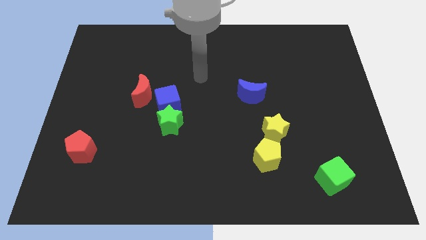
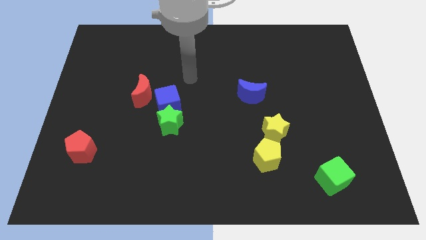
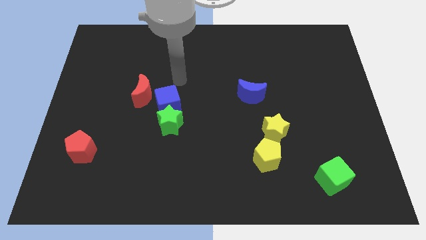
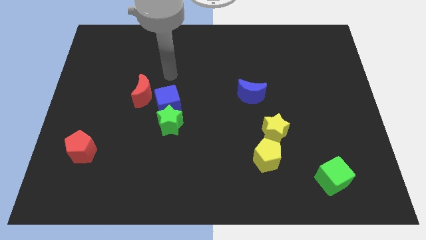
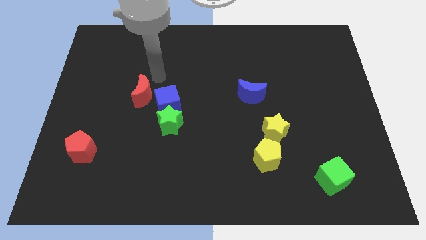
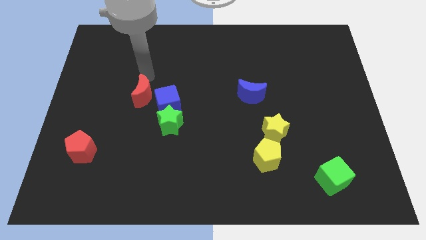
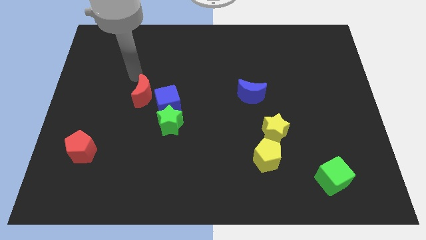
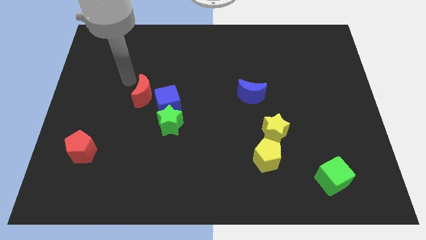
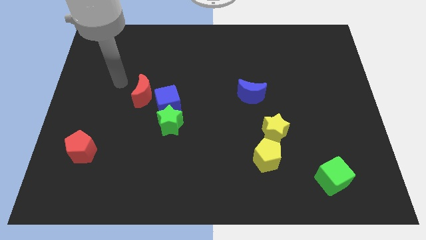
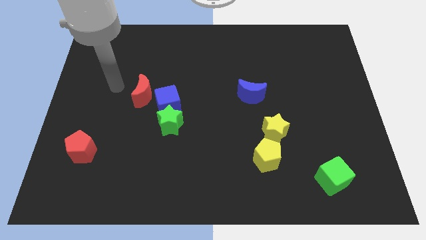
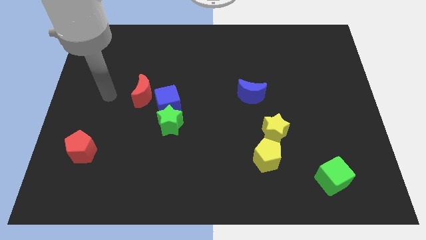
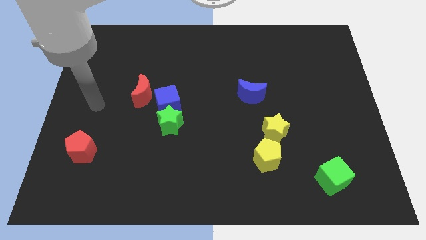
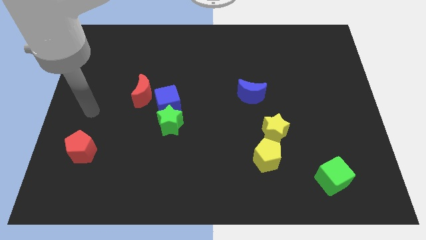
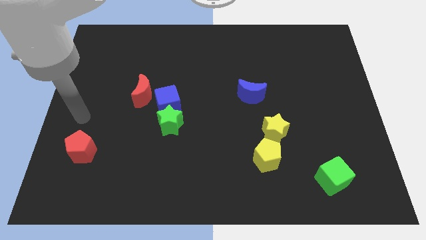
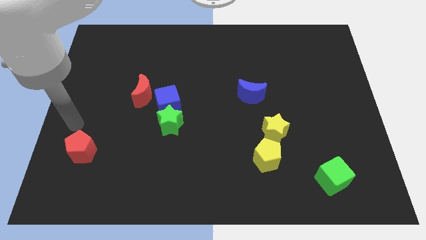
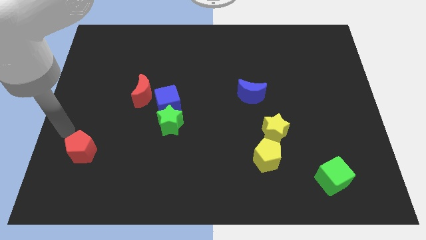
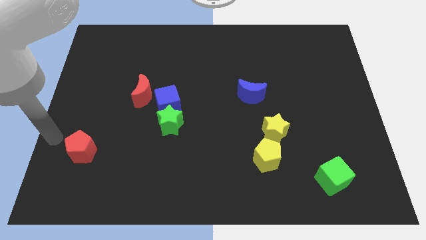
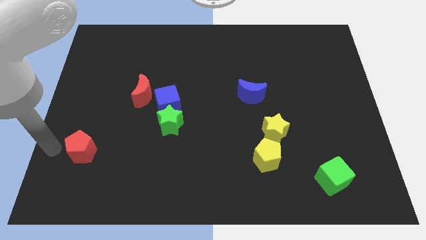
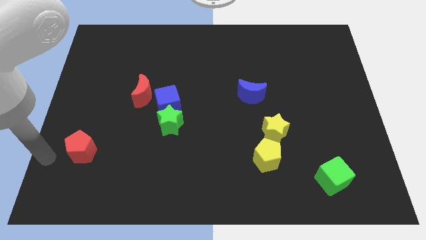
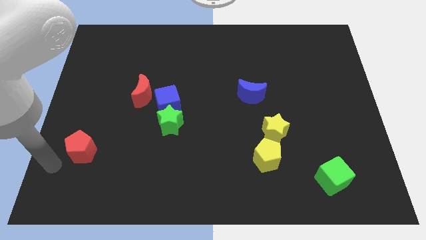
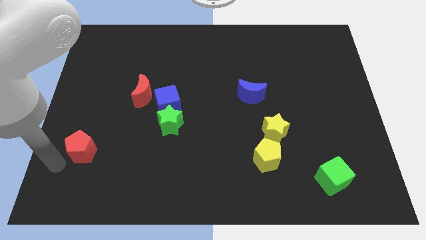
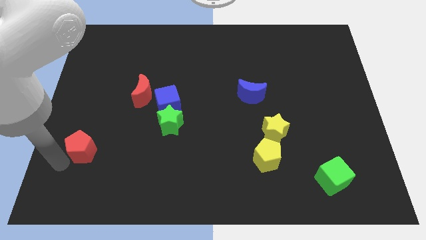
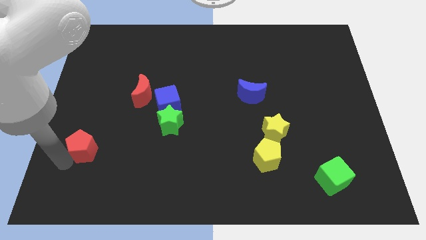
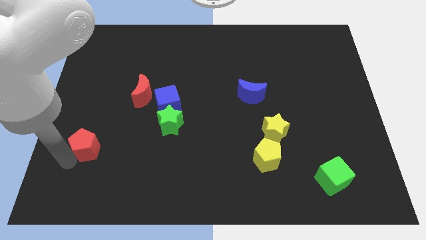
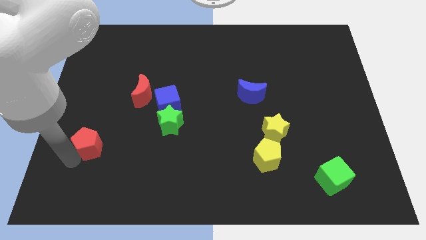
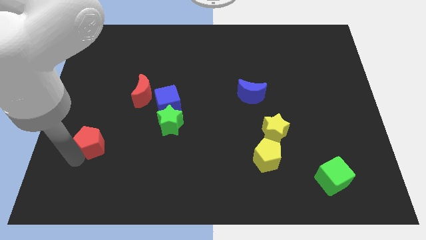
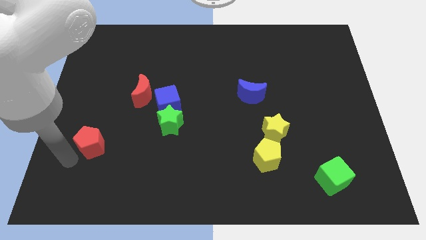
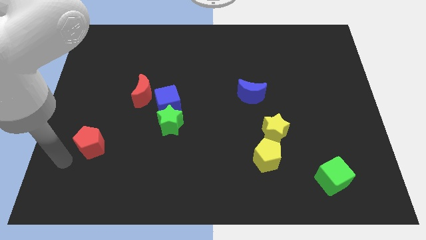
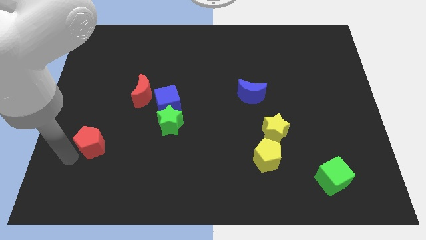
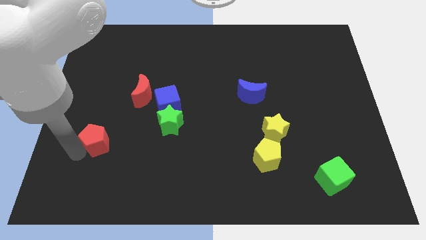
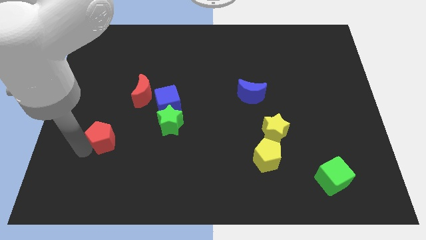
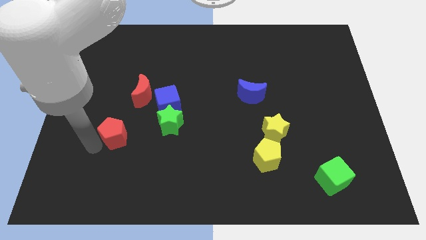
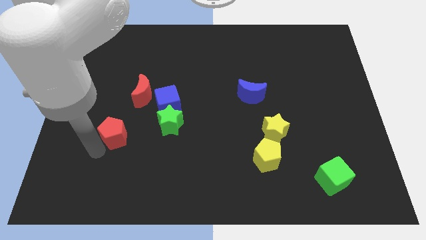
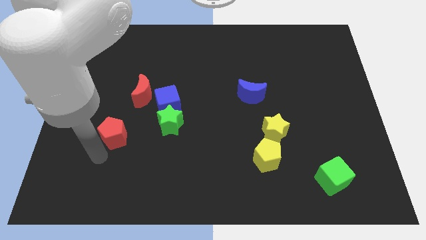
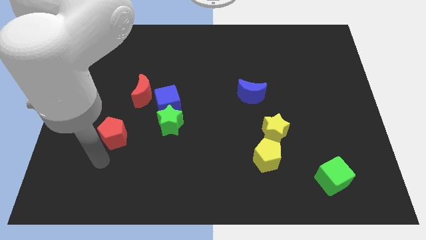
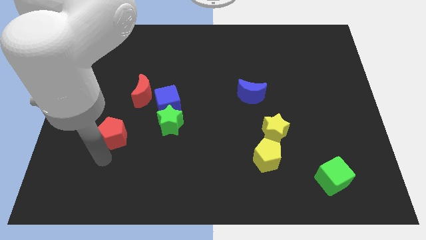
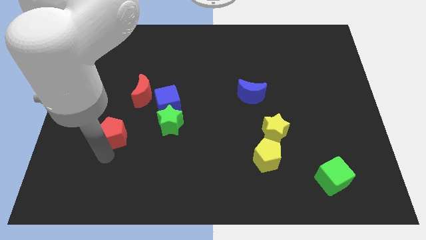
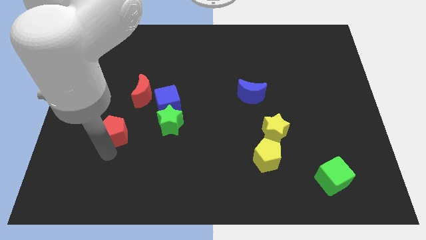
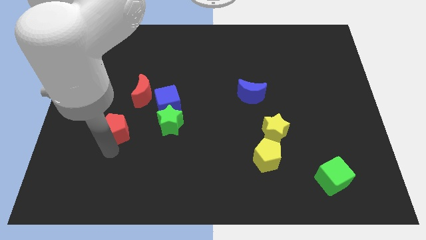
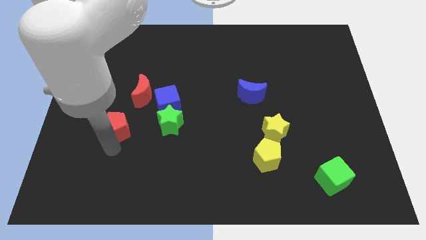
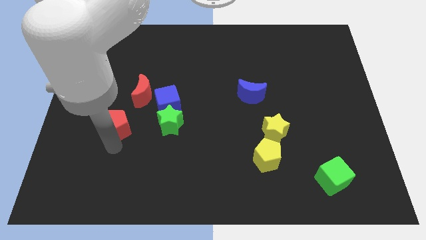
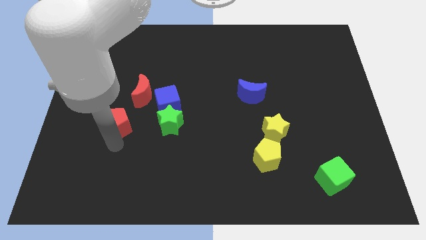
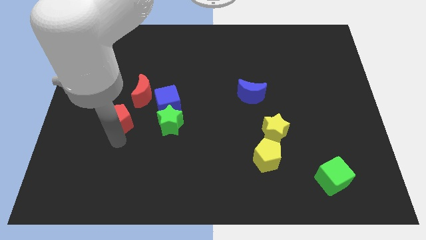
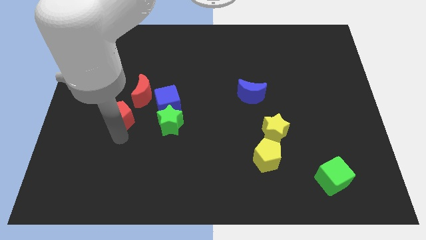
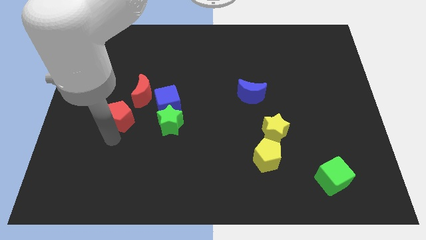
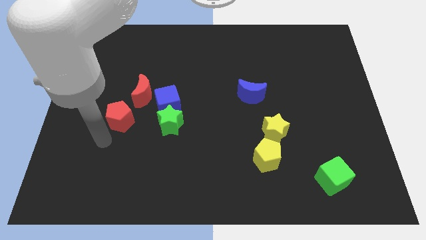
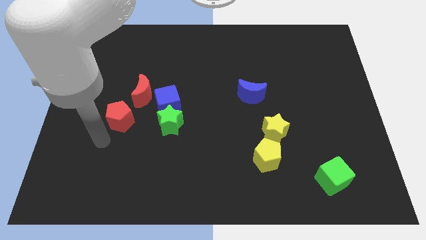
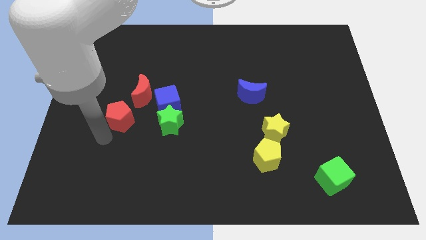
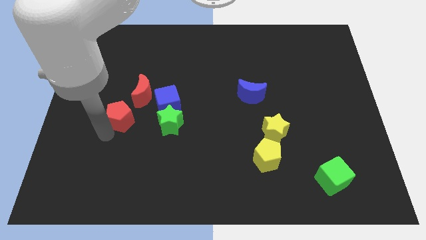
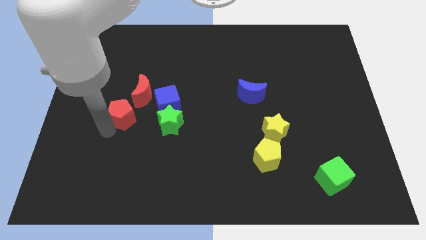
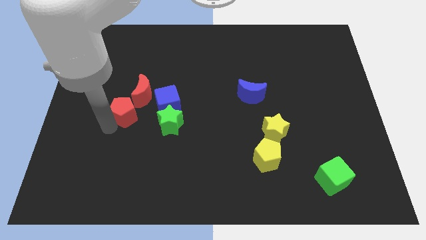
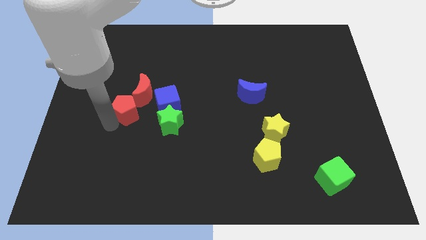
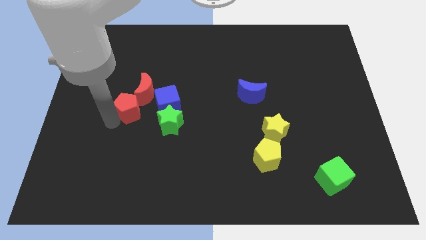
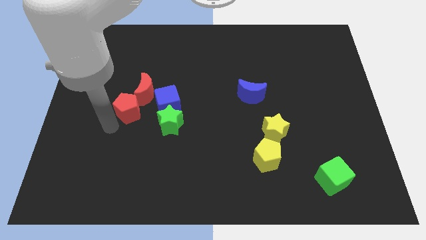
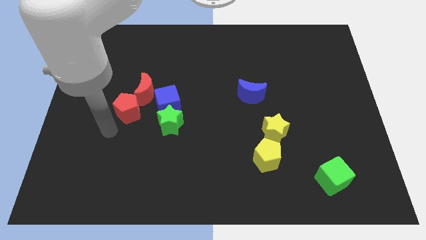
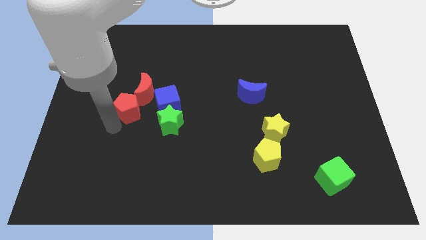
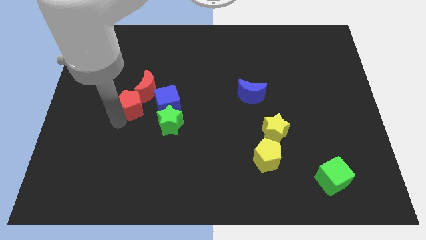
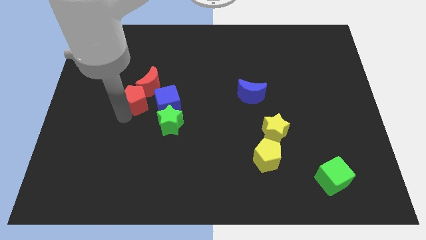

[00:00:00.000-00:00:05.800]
push the red pentagon close to the red moon
